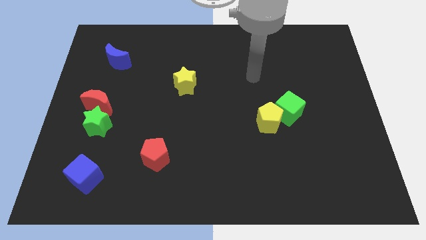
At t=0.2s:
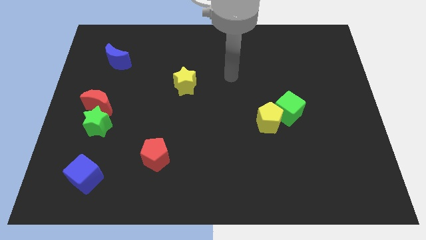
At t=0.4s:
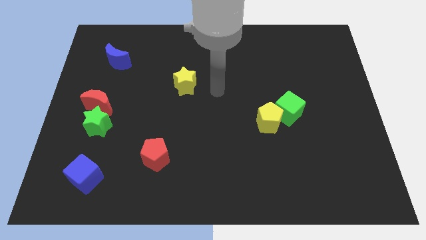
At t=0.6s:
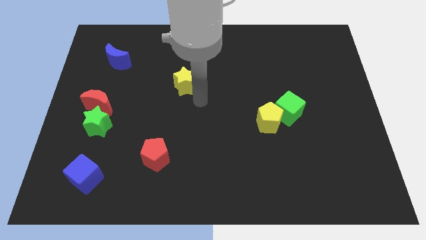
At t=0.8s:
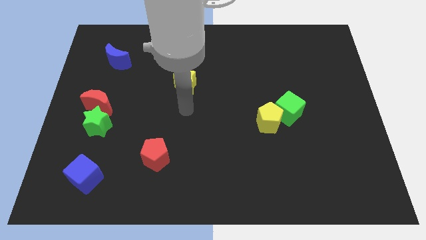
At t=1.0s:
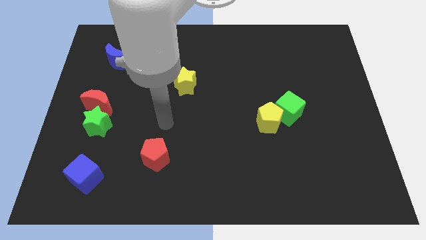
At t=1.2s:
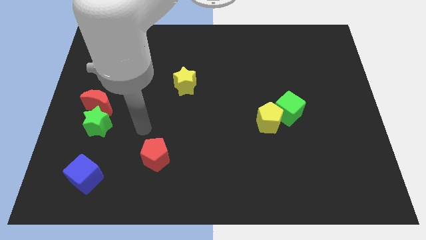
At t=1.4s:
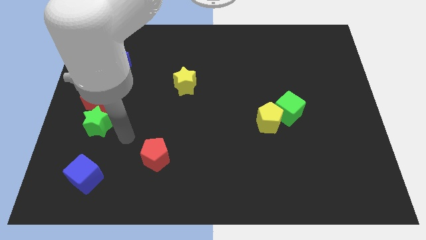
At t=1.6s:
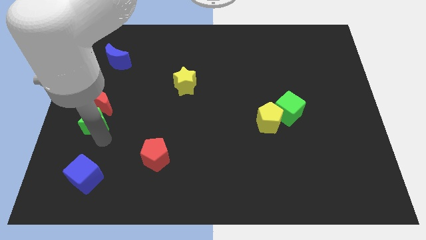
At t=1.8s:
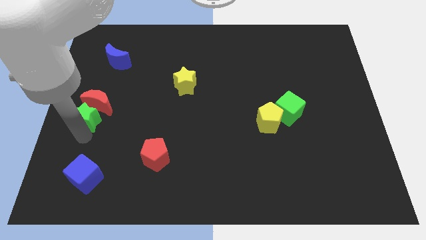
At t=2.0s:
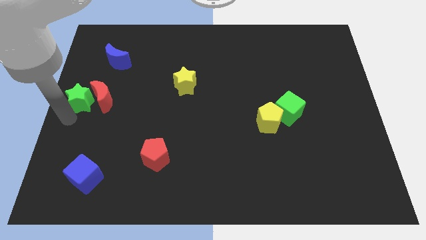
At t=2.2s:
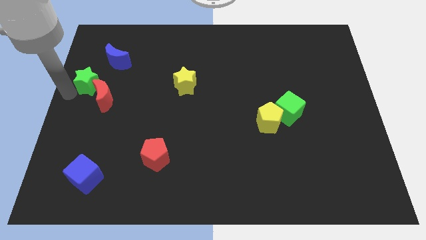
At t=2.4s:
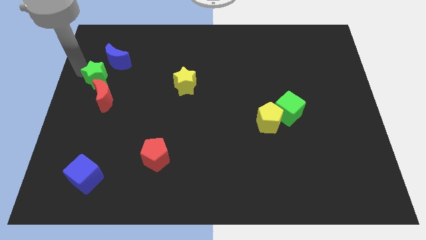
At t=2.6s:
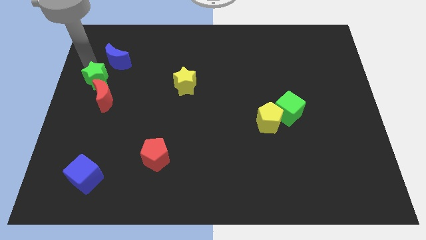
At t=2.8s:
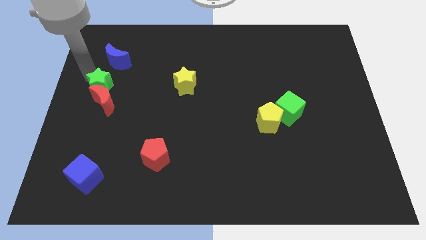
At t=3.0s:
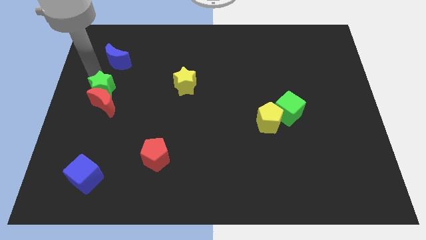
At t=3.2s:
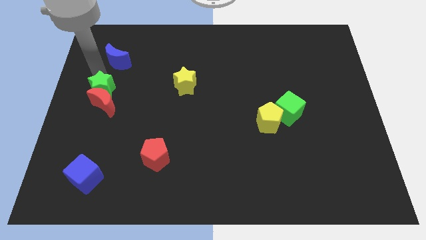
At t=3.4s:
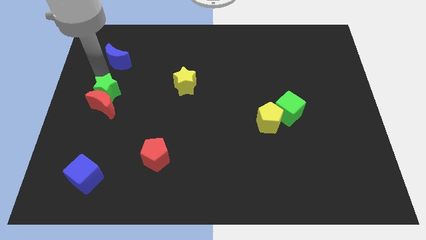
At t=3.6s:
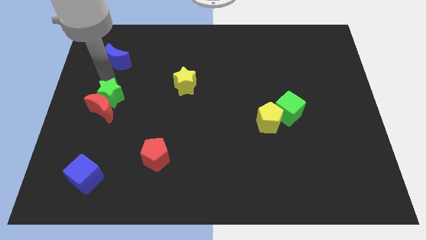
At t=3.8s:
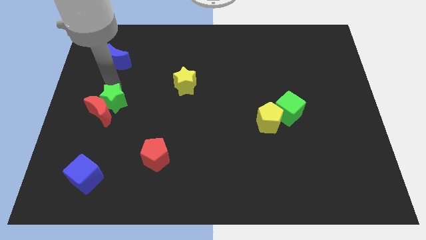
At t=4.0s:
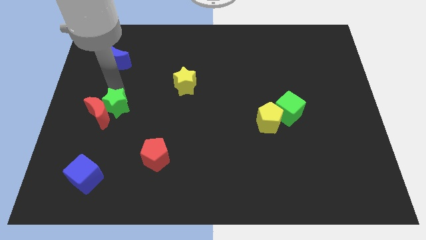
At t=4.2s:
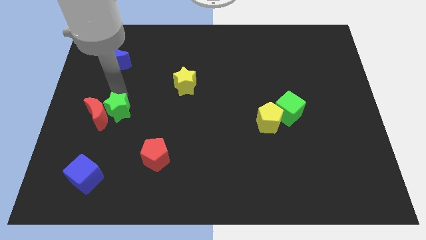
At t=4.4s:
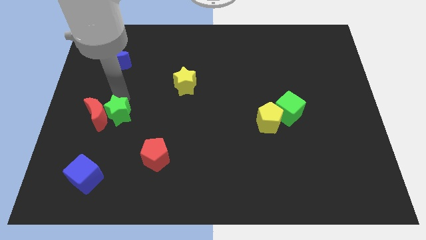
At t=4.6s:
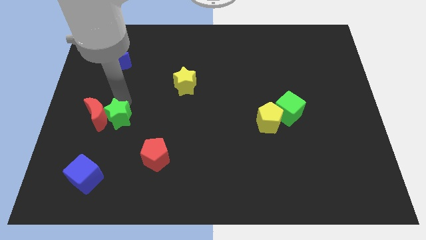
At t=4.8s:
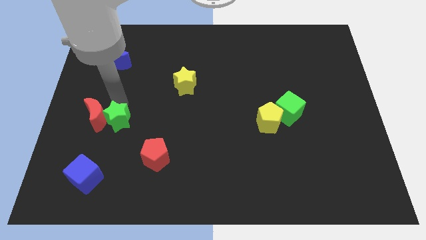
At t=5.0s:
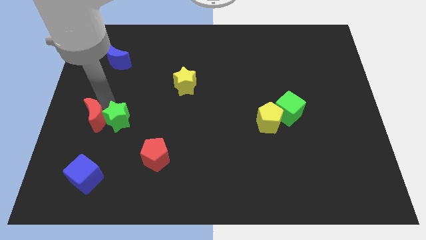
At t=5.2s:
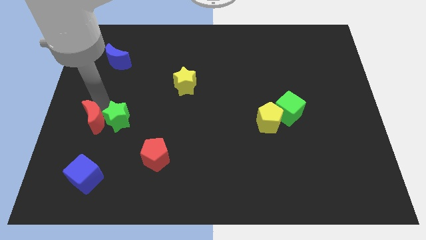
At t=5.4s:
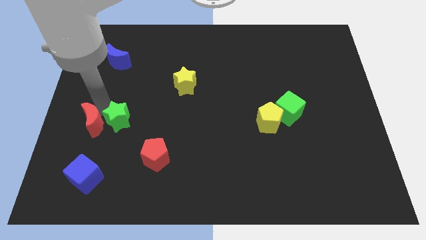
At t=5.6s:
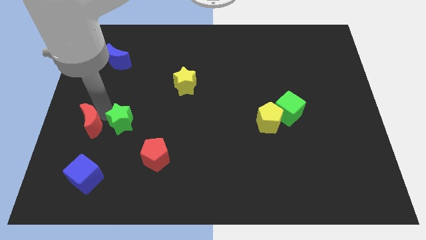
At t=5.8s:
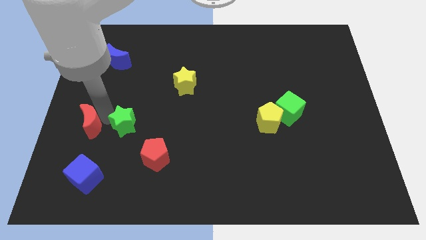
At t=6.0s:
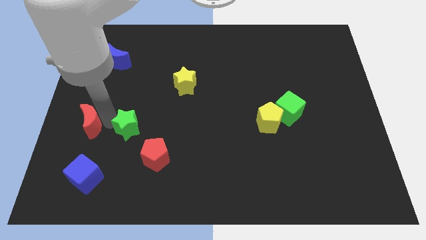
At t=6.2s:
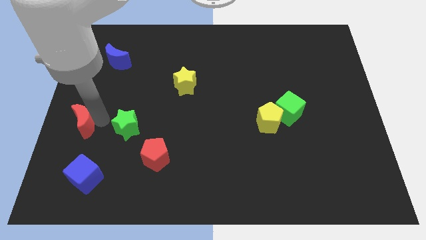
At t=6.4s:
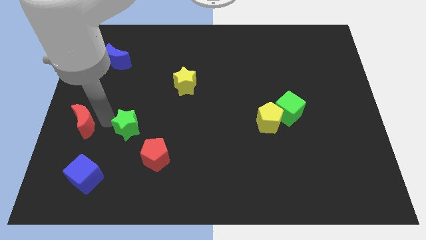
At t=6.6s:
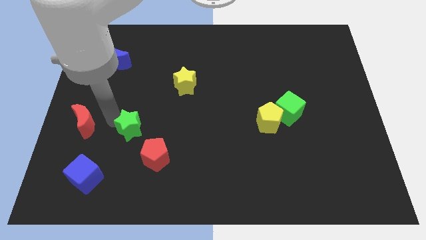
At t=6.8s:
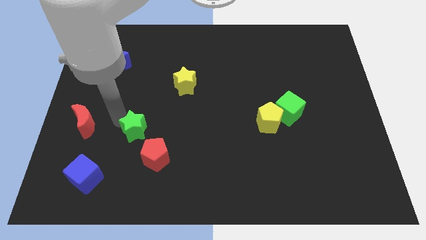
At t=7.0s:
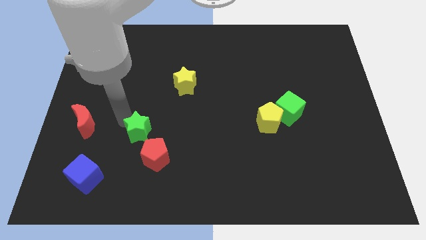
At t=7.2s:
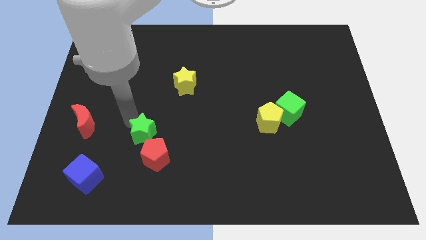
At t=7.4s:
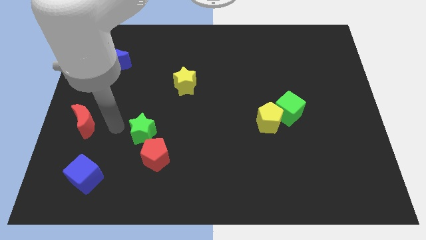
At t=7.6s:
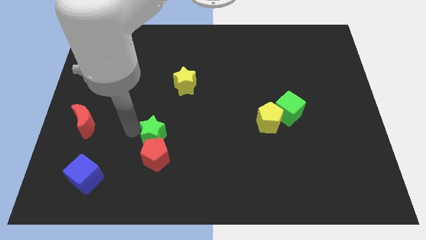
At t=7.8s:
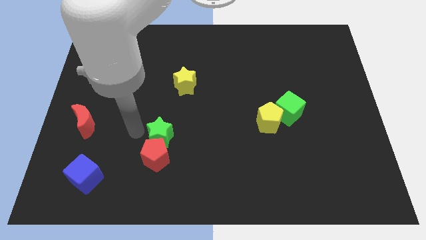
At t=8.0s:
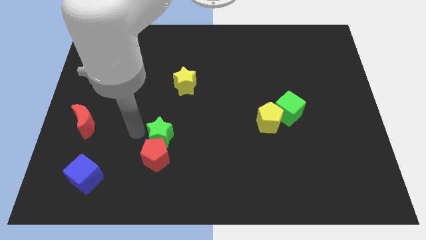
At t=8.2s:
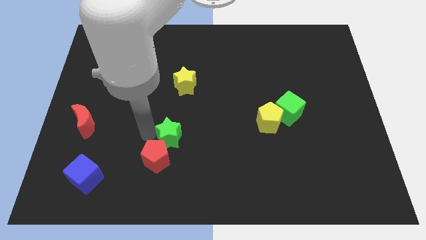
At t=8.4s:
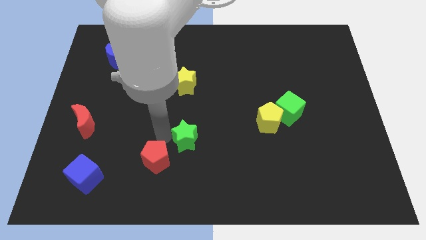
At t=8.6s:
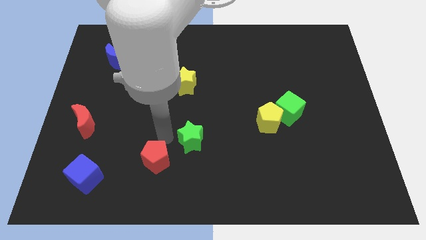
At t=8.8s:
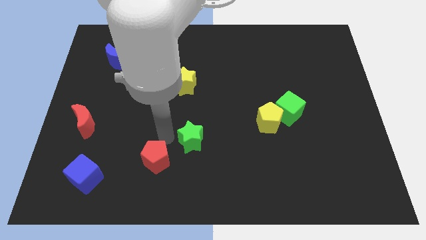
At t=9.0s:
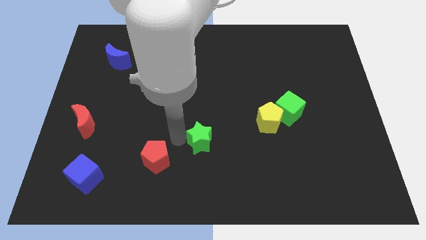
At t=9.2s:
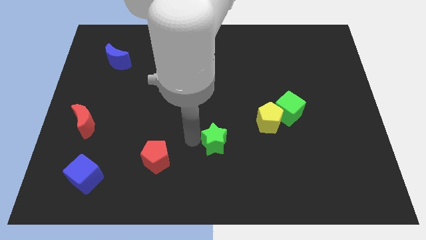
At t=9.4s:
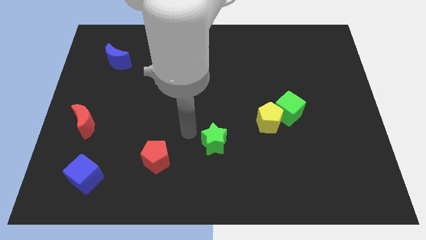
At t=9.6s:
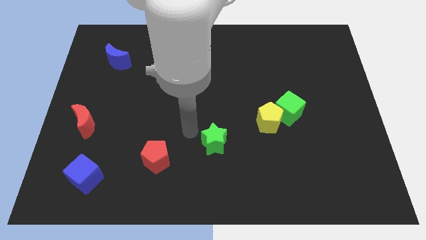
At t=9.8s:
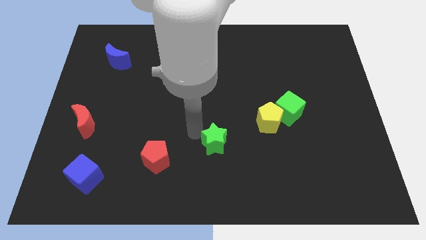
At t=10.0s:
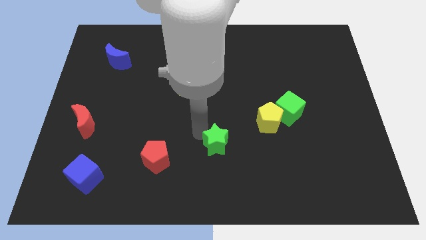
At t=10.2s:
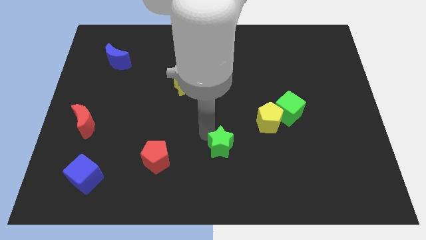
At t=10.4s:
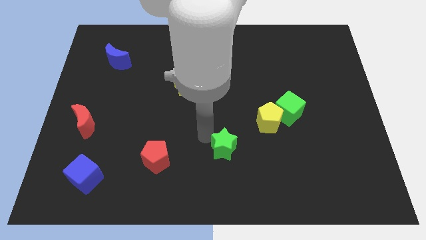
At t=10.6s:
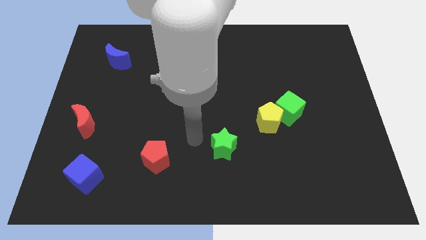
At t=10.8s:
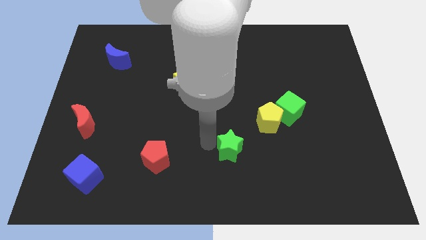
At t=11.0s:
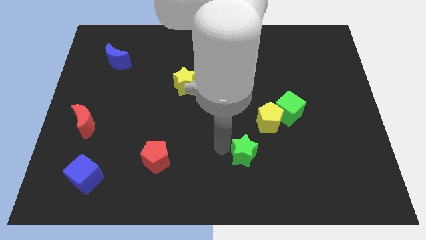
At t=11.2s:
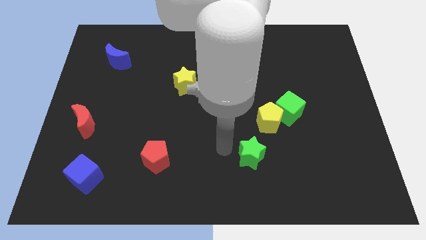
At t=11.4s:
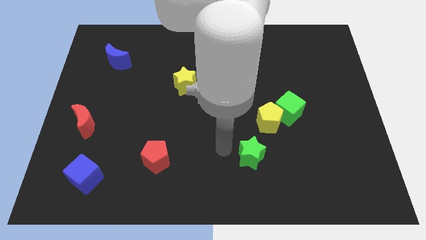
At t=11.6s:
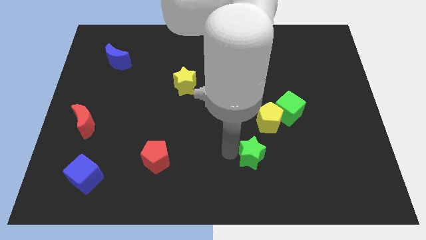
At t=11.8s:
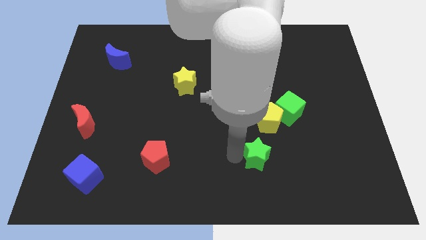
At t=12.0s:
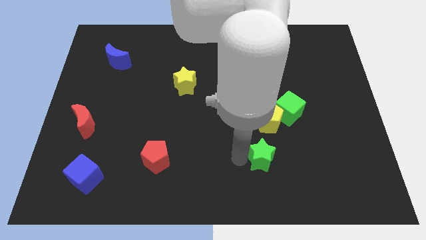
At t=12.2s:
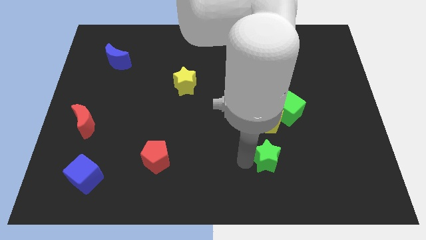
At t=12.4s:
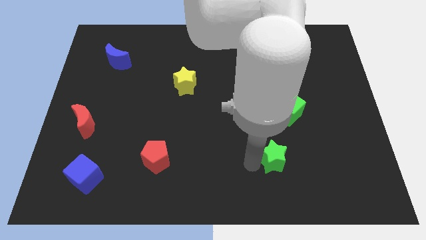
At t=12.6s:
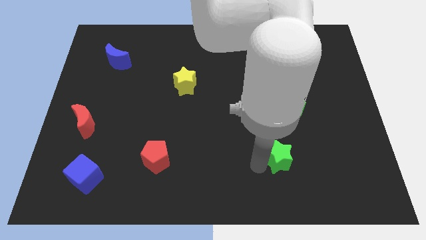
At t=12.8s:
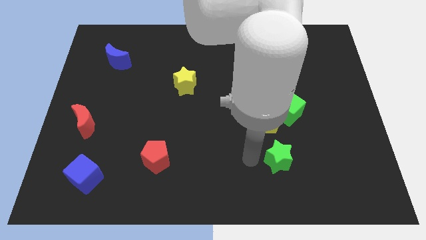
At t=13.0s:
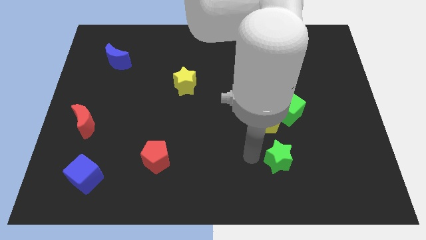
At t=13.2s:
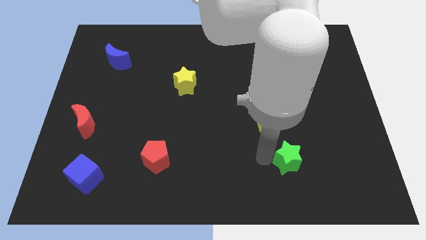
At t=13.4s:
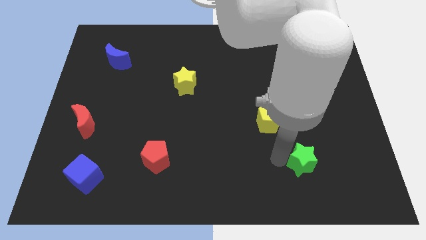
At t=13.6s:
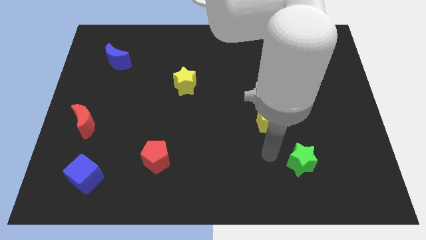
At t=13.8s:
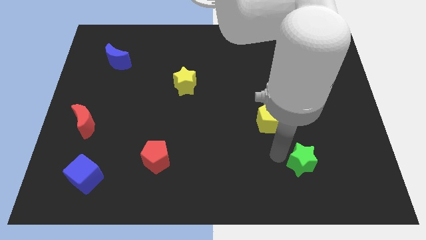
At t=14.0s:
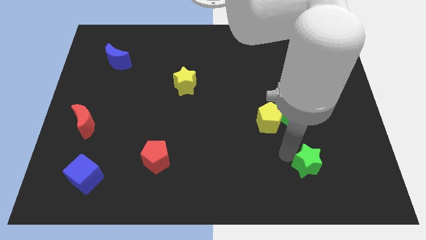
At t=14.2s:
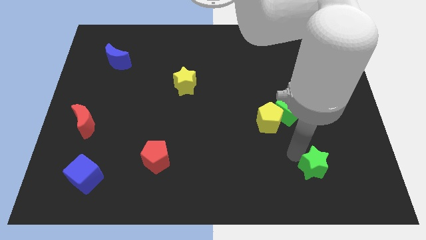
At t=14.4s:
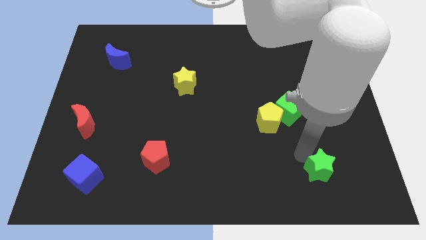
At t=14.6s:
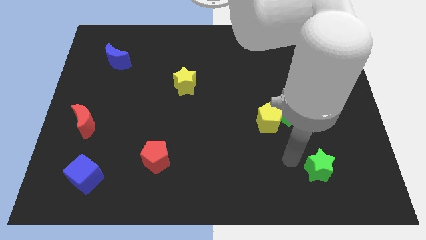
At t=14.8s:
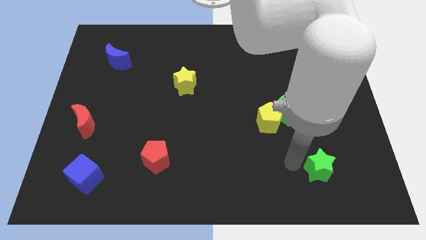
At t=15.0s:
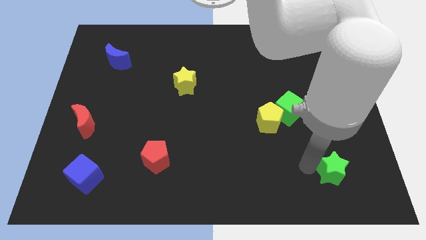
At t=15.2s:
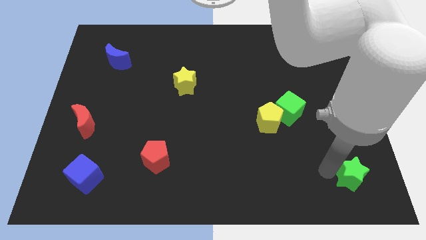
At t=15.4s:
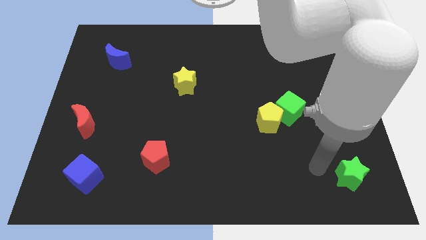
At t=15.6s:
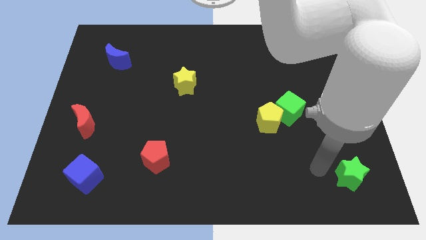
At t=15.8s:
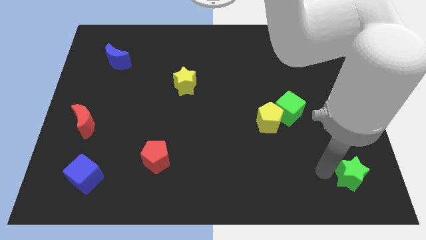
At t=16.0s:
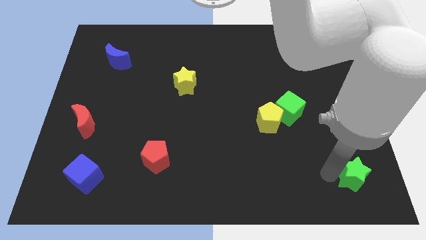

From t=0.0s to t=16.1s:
slide the green star to the bottom right
